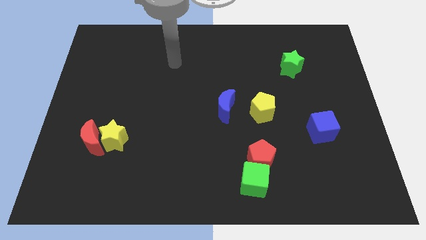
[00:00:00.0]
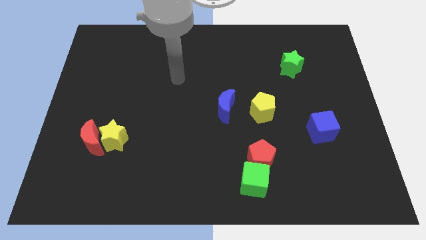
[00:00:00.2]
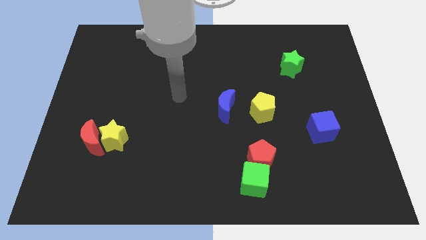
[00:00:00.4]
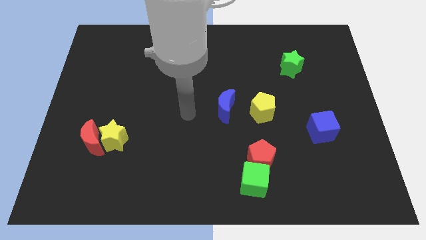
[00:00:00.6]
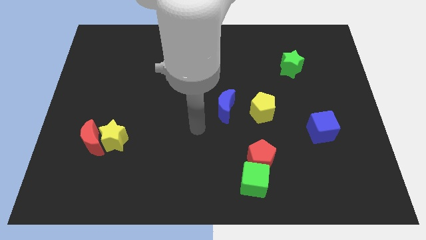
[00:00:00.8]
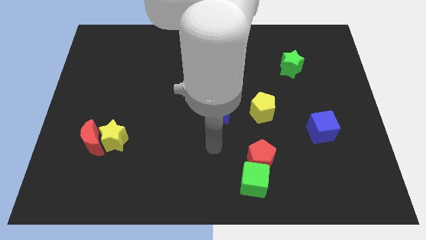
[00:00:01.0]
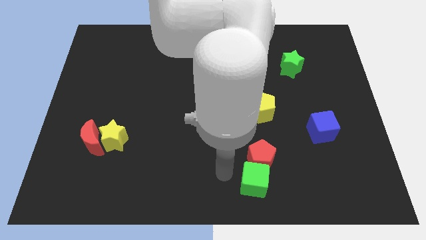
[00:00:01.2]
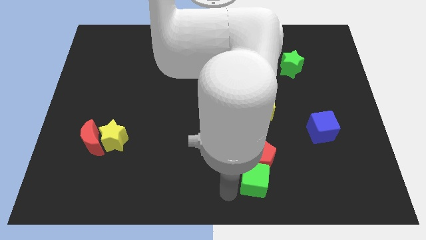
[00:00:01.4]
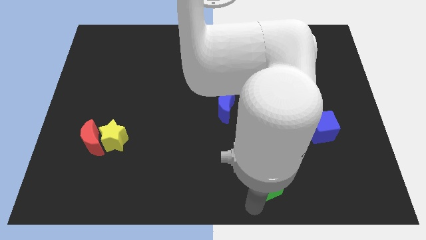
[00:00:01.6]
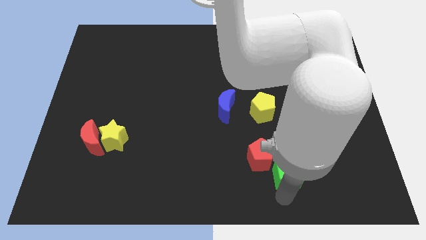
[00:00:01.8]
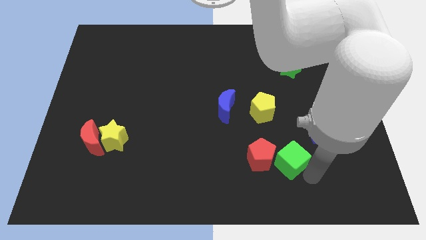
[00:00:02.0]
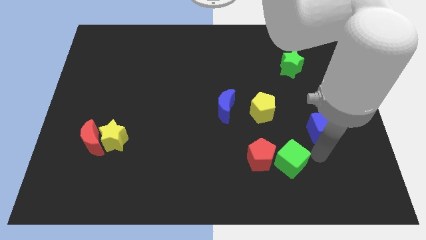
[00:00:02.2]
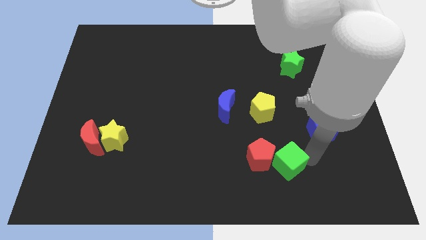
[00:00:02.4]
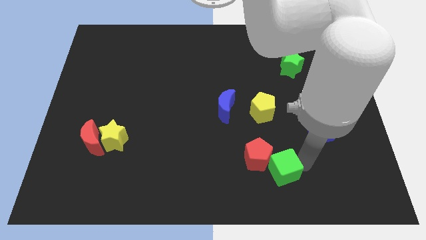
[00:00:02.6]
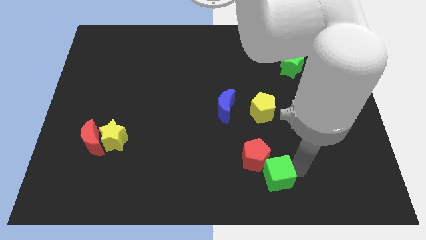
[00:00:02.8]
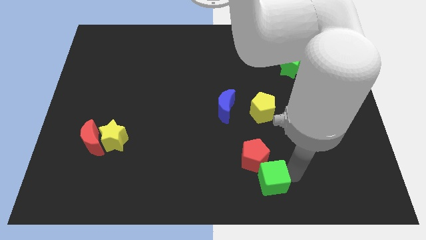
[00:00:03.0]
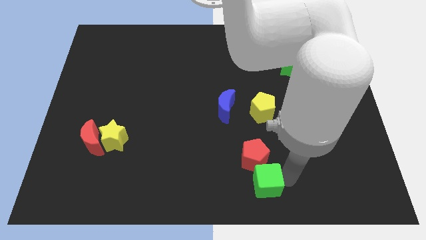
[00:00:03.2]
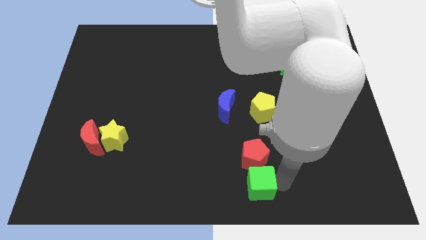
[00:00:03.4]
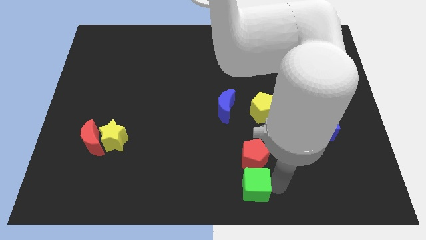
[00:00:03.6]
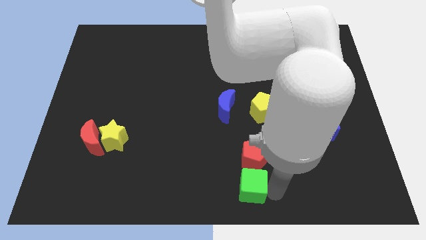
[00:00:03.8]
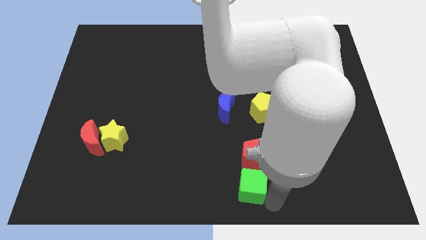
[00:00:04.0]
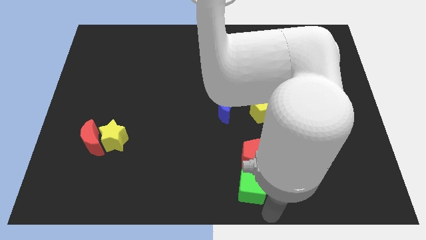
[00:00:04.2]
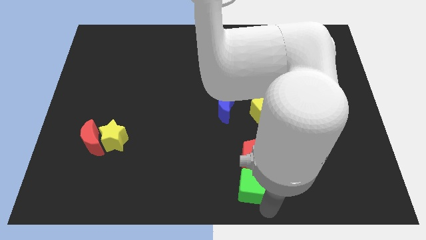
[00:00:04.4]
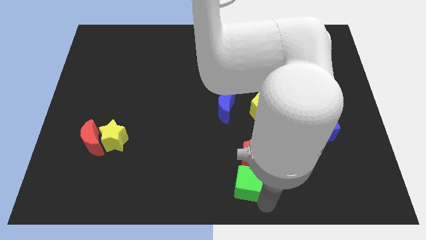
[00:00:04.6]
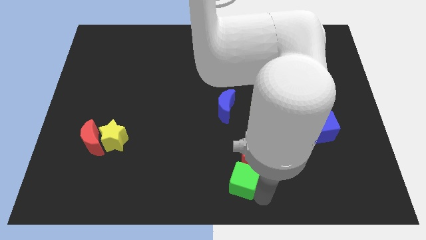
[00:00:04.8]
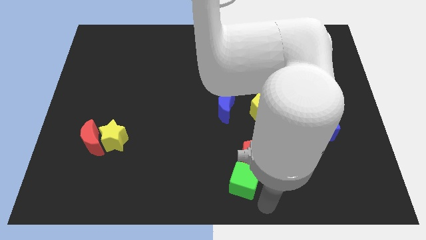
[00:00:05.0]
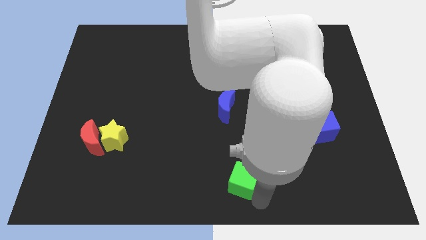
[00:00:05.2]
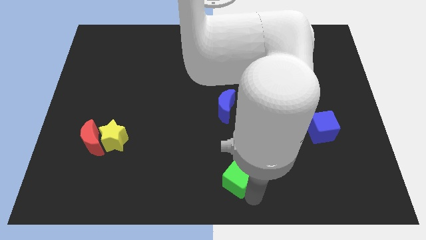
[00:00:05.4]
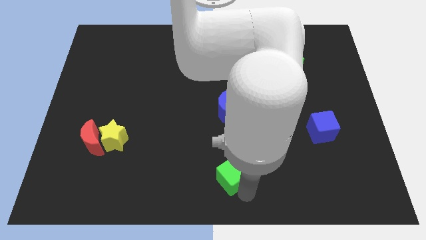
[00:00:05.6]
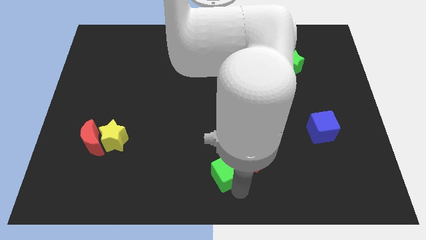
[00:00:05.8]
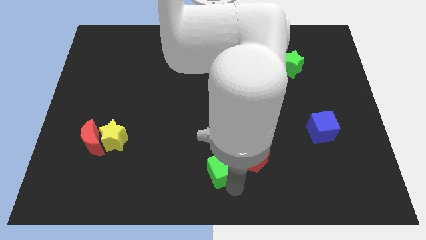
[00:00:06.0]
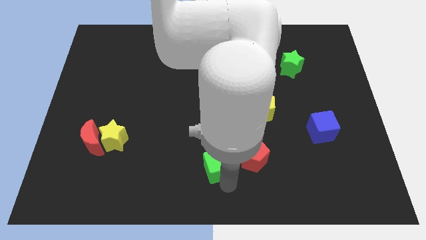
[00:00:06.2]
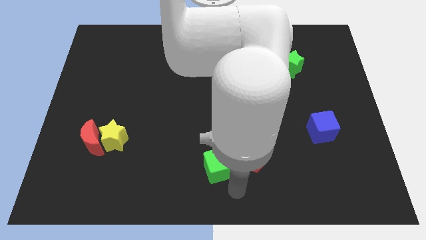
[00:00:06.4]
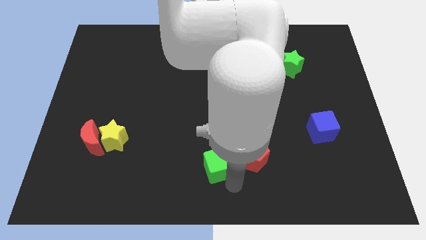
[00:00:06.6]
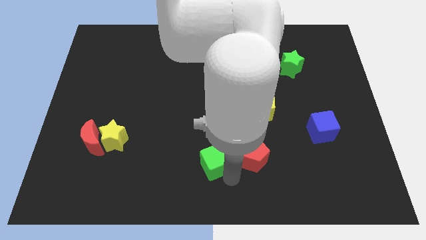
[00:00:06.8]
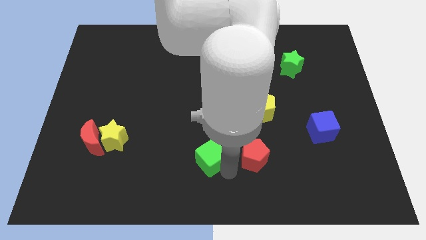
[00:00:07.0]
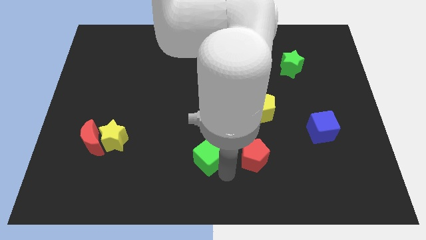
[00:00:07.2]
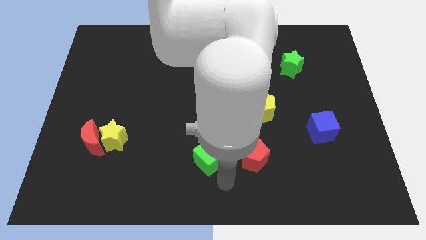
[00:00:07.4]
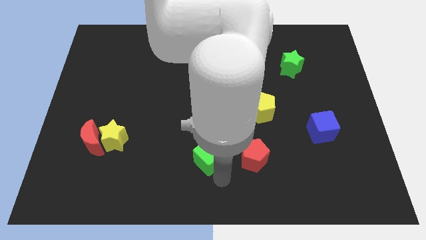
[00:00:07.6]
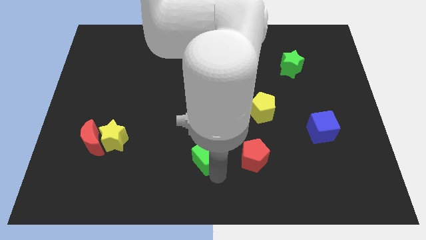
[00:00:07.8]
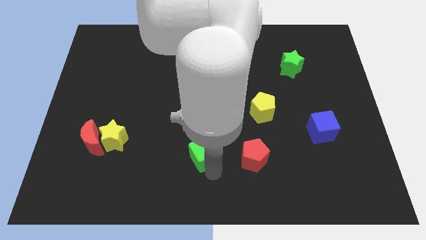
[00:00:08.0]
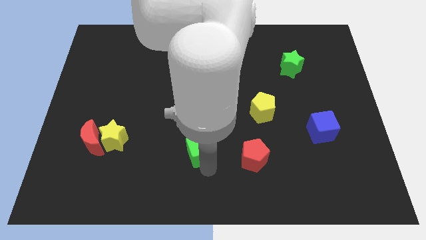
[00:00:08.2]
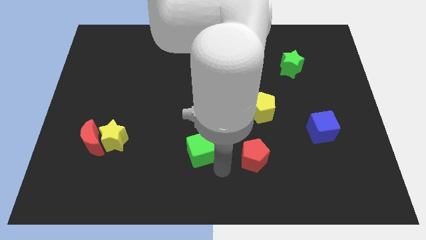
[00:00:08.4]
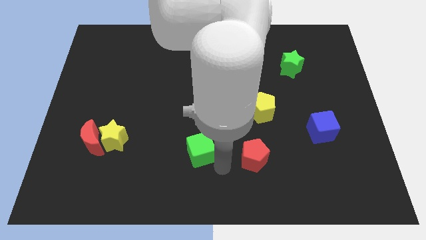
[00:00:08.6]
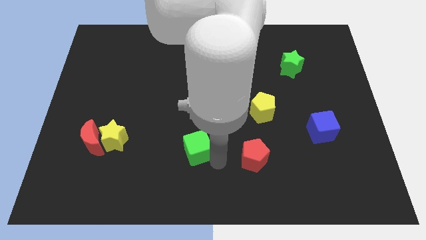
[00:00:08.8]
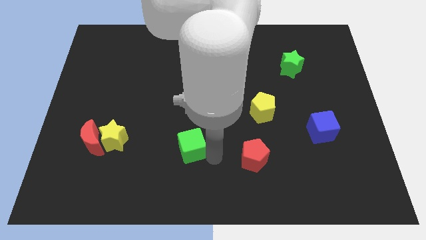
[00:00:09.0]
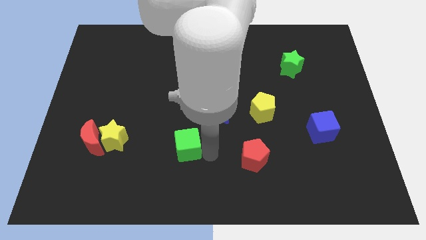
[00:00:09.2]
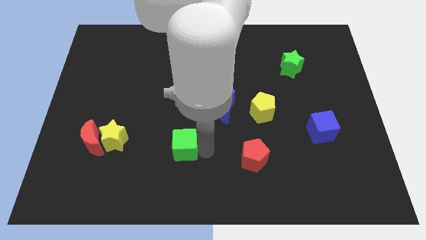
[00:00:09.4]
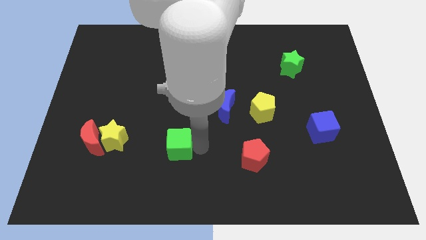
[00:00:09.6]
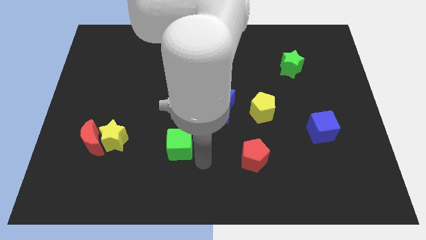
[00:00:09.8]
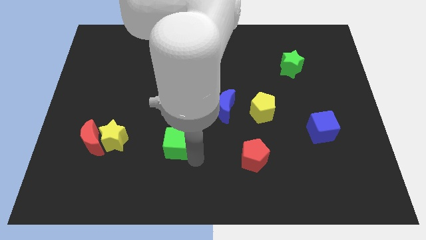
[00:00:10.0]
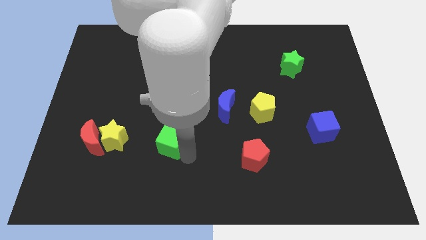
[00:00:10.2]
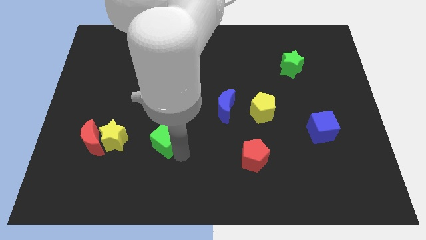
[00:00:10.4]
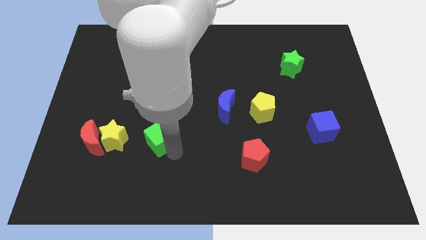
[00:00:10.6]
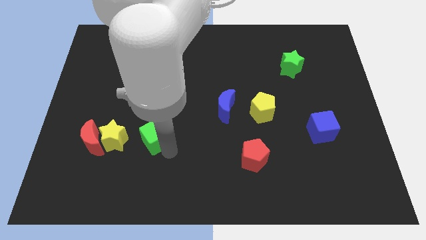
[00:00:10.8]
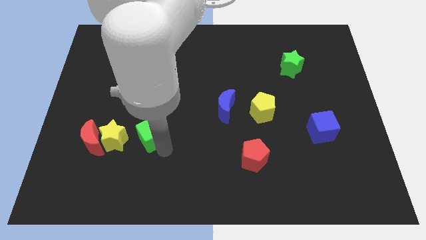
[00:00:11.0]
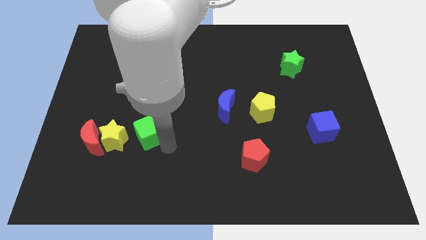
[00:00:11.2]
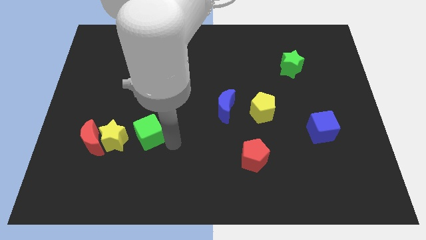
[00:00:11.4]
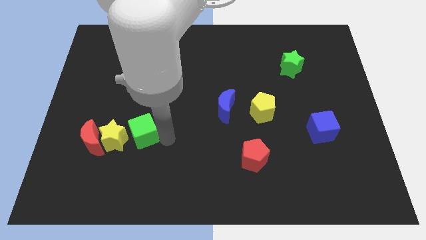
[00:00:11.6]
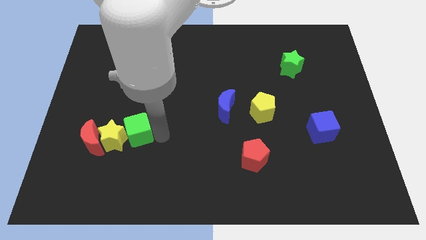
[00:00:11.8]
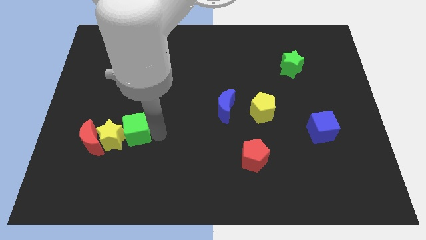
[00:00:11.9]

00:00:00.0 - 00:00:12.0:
push the green cube to the top right of the red moon
